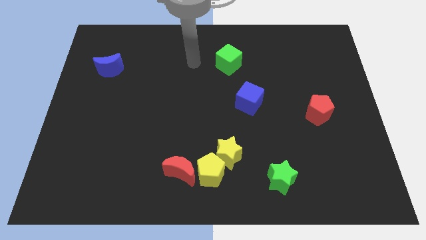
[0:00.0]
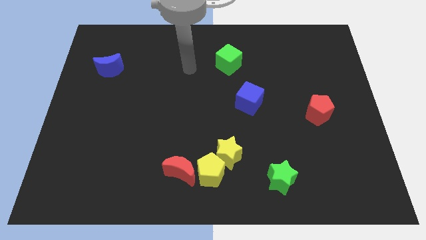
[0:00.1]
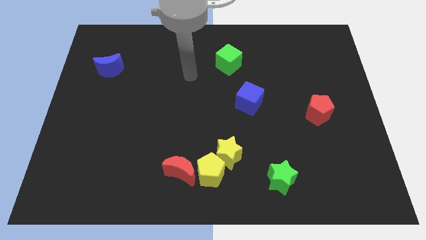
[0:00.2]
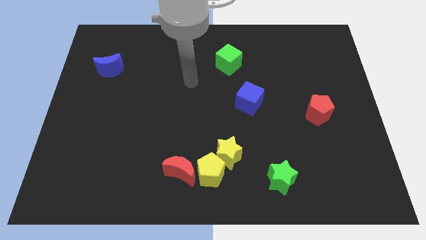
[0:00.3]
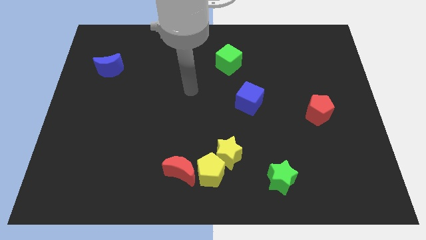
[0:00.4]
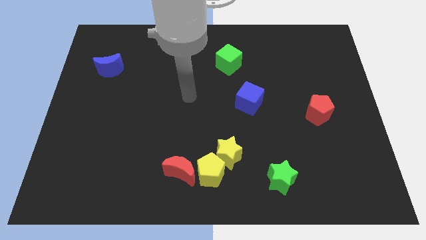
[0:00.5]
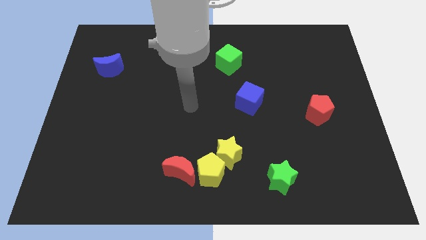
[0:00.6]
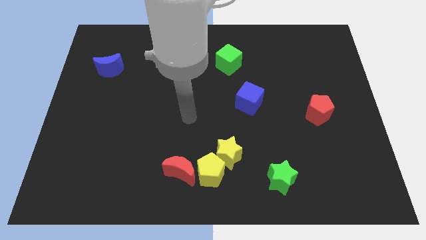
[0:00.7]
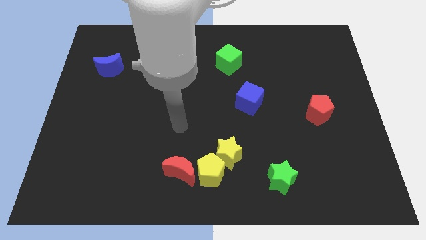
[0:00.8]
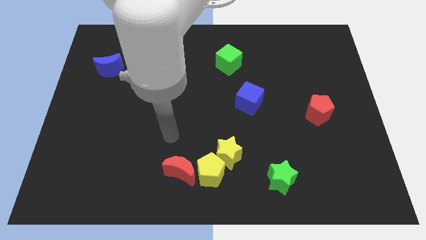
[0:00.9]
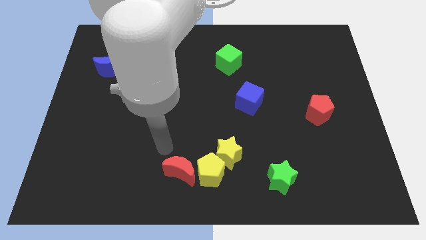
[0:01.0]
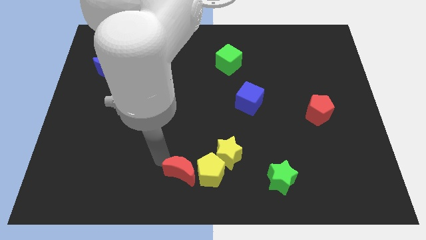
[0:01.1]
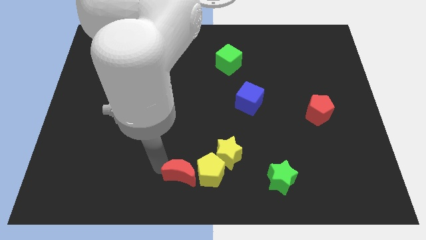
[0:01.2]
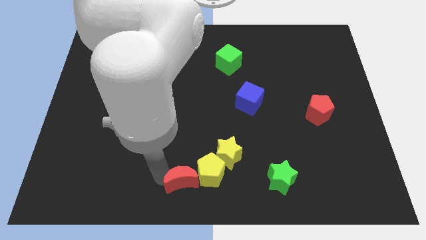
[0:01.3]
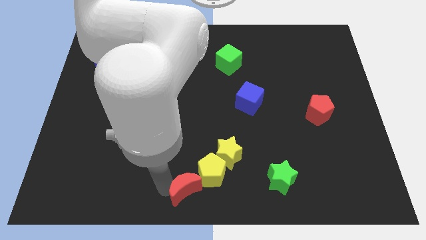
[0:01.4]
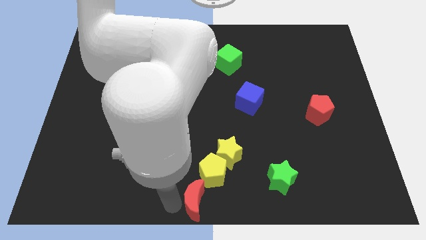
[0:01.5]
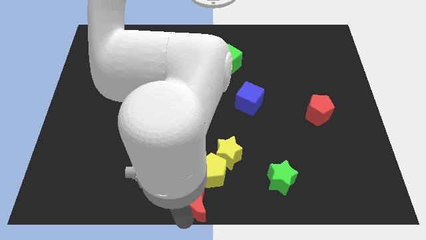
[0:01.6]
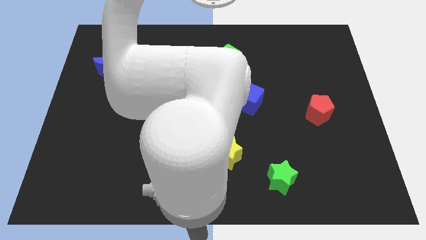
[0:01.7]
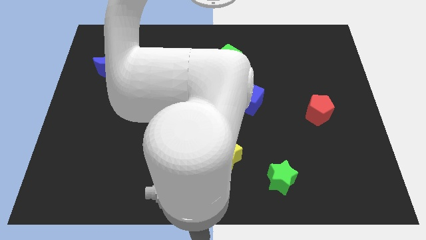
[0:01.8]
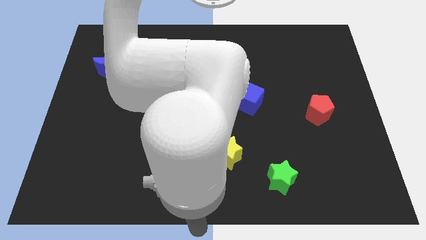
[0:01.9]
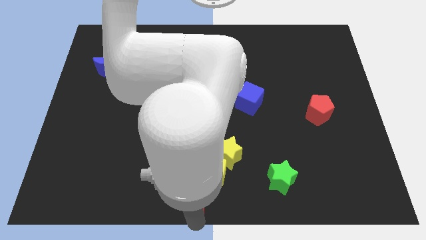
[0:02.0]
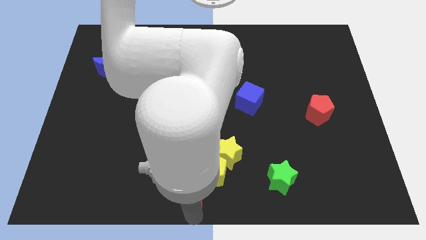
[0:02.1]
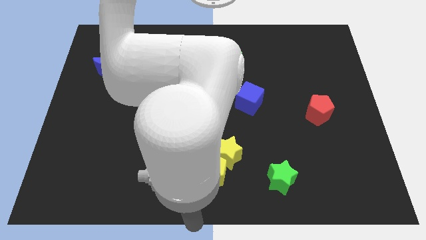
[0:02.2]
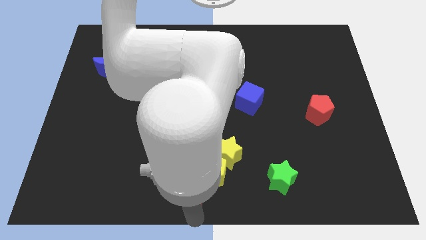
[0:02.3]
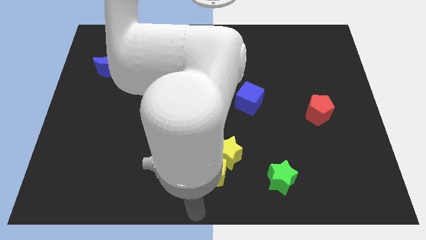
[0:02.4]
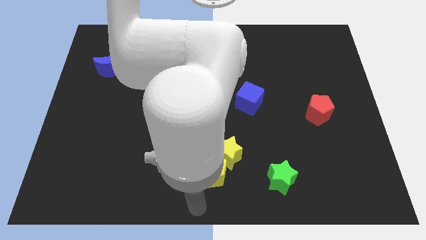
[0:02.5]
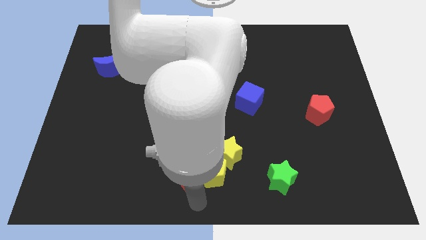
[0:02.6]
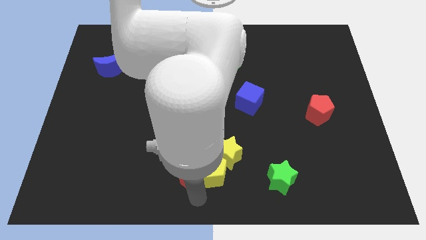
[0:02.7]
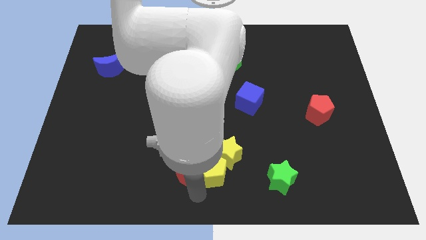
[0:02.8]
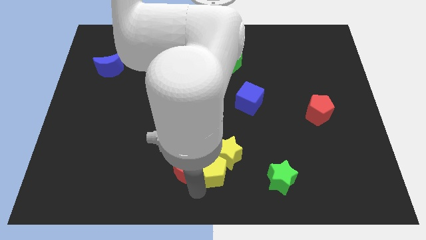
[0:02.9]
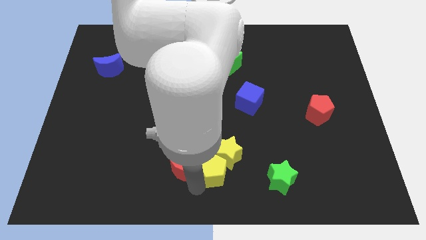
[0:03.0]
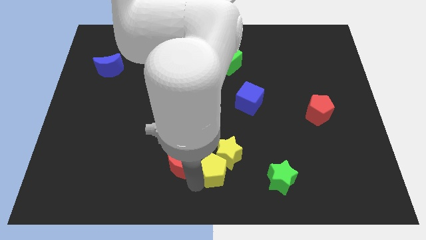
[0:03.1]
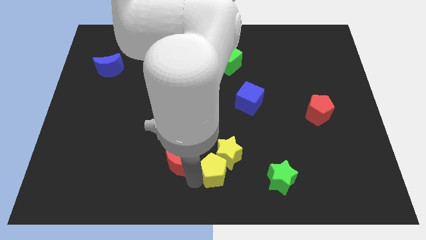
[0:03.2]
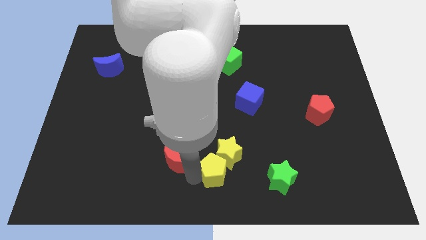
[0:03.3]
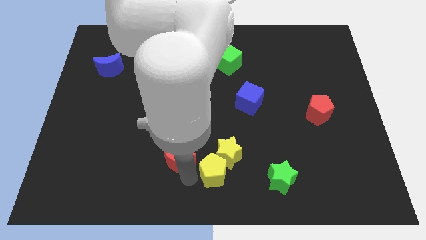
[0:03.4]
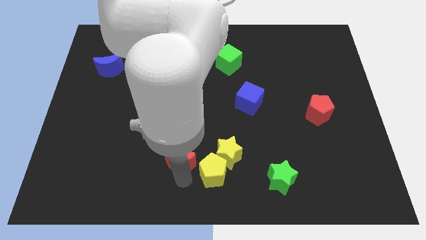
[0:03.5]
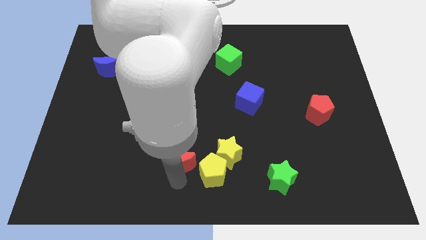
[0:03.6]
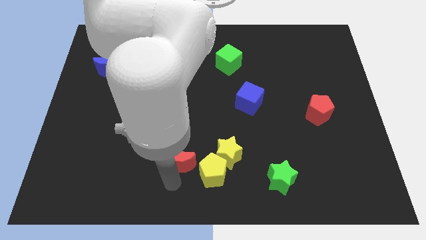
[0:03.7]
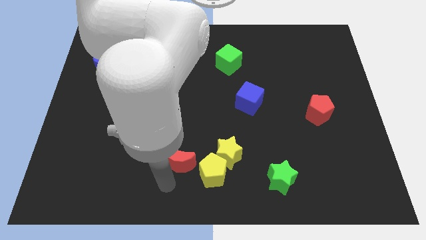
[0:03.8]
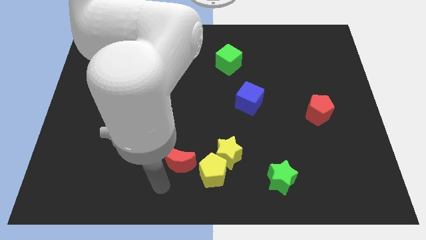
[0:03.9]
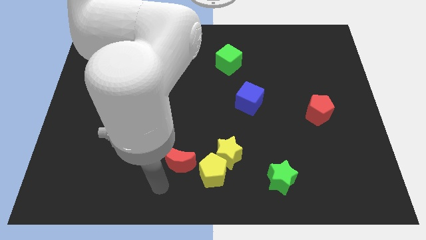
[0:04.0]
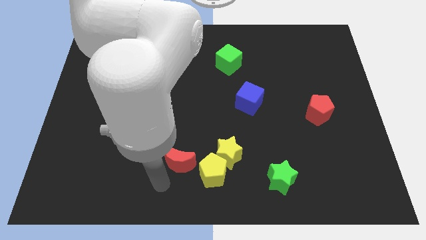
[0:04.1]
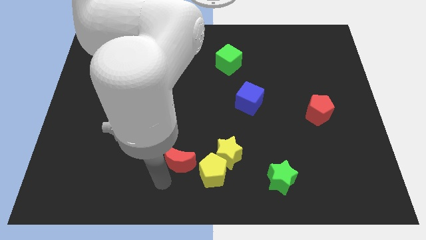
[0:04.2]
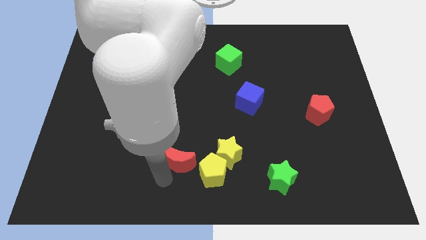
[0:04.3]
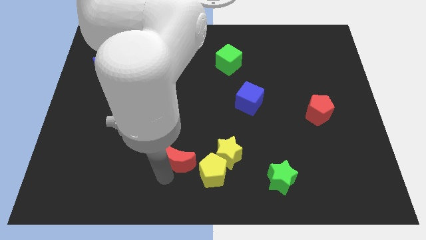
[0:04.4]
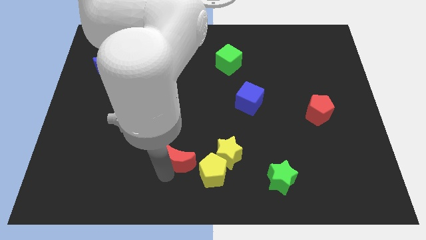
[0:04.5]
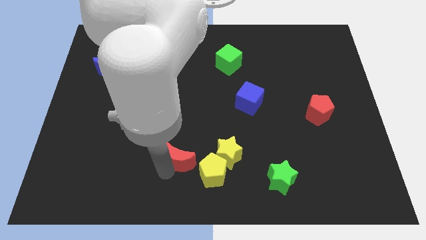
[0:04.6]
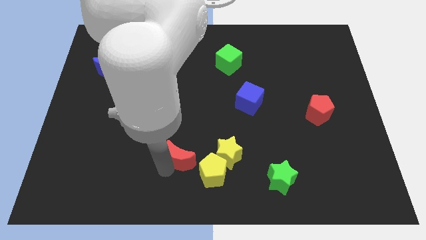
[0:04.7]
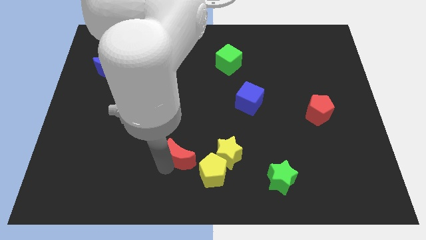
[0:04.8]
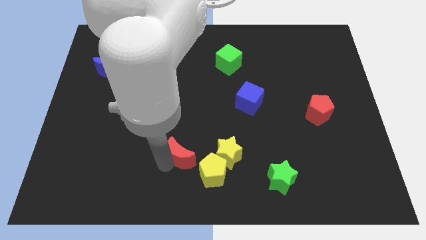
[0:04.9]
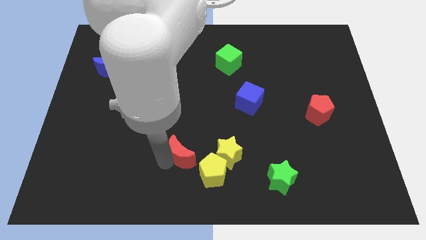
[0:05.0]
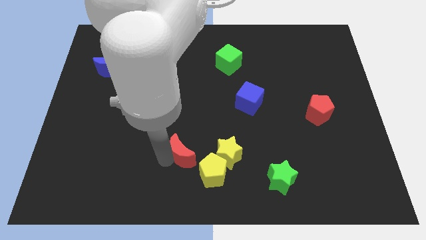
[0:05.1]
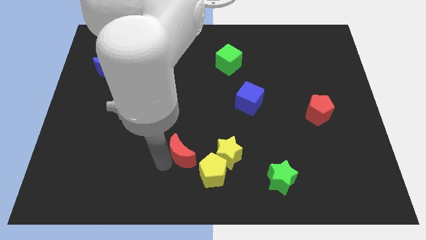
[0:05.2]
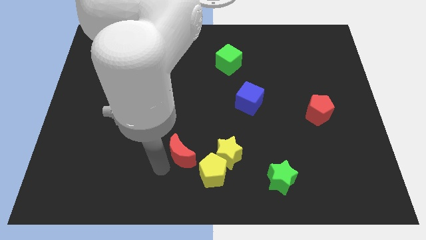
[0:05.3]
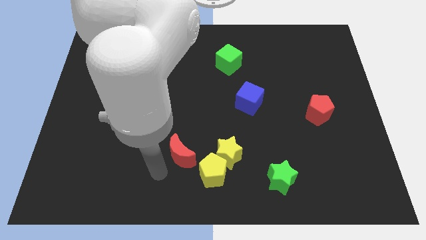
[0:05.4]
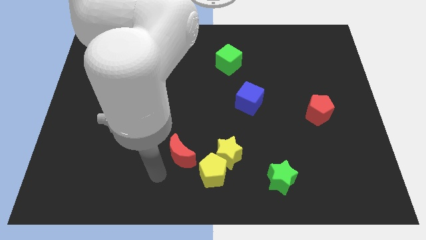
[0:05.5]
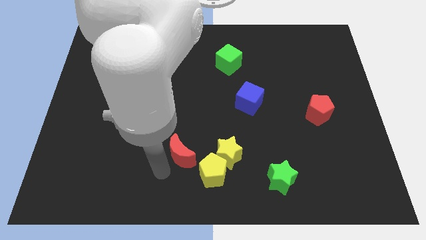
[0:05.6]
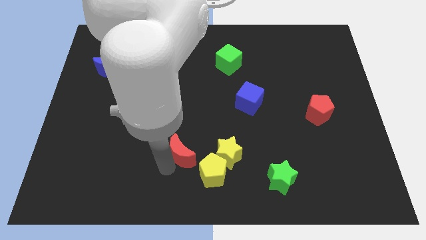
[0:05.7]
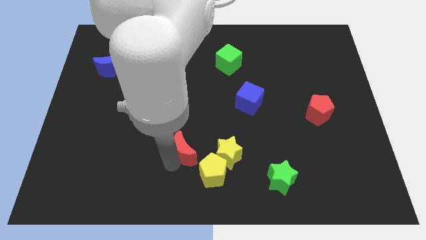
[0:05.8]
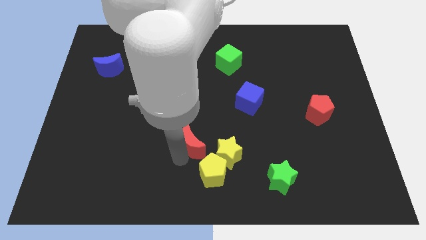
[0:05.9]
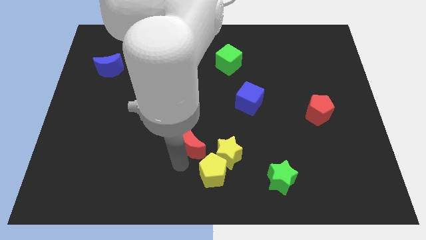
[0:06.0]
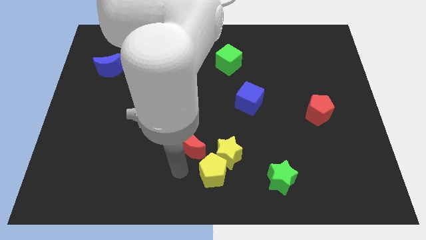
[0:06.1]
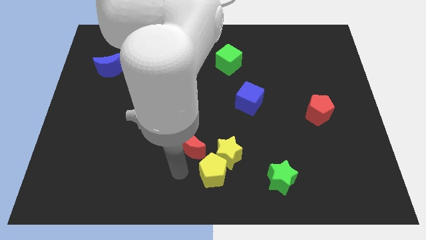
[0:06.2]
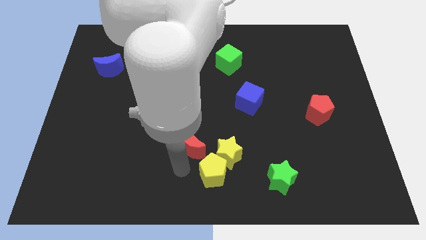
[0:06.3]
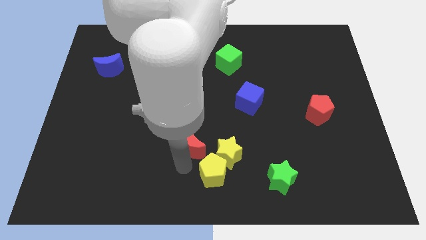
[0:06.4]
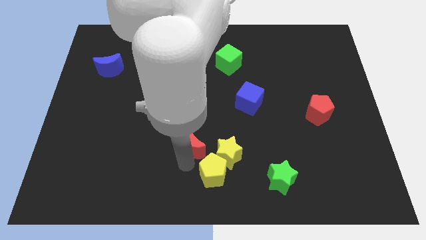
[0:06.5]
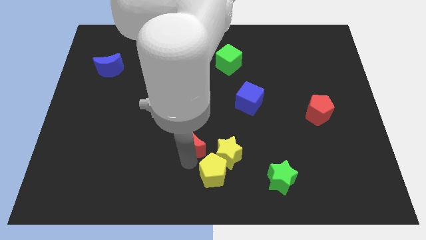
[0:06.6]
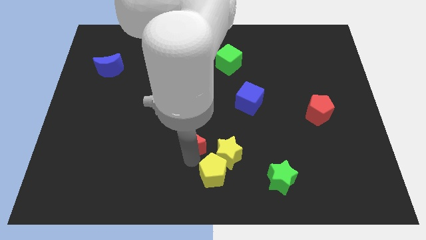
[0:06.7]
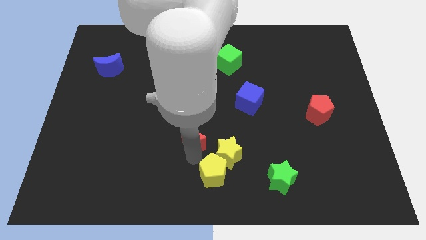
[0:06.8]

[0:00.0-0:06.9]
move the red moon to the center
